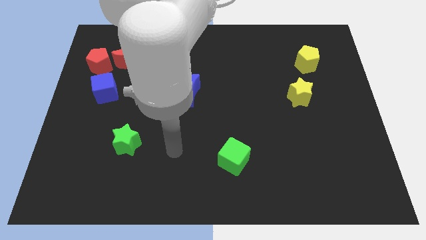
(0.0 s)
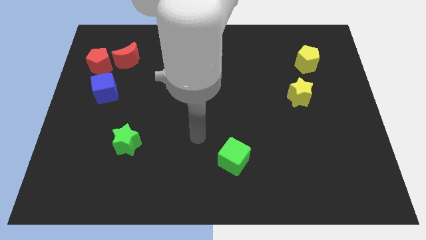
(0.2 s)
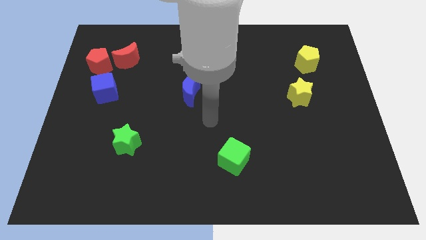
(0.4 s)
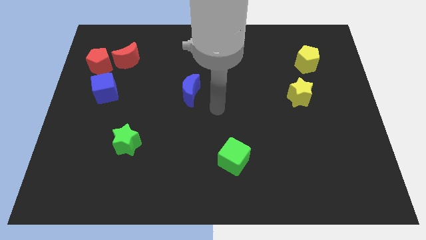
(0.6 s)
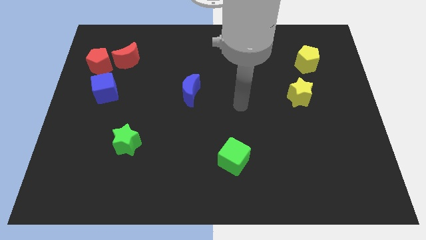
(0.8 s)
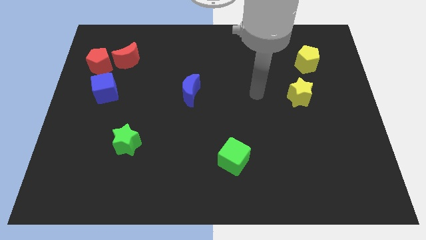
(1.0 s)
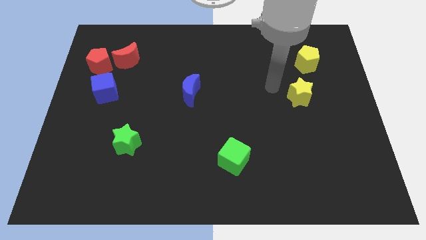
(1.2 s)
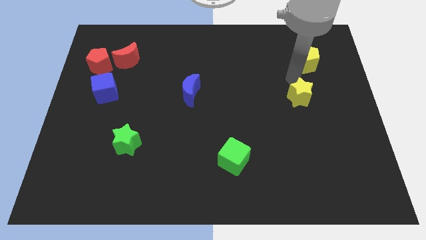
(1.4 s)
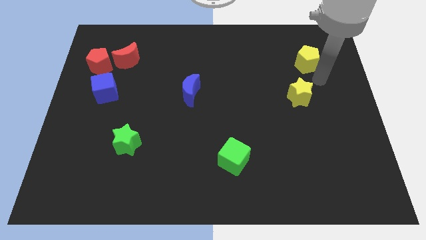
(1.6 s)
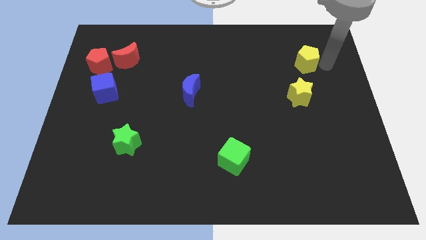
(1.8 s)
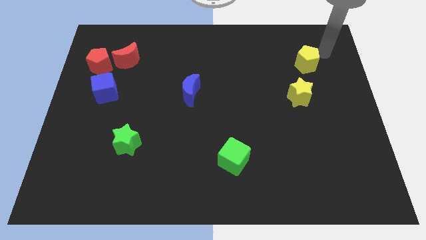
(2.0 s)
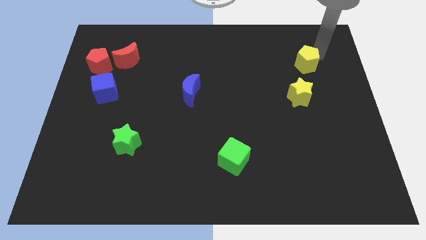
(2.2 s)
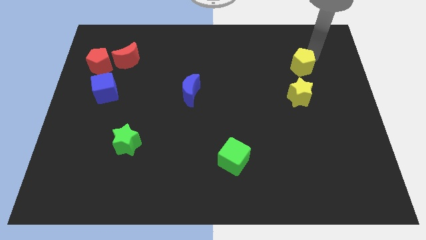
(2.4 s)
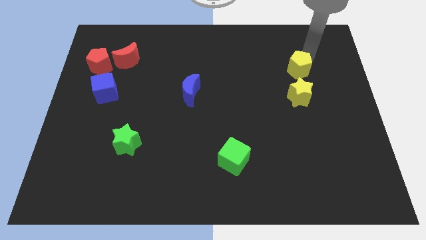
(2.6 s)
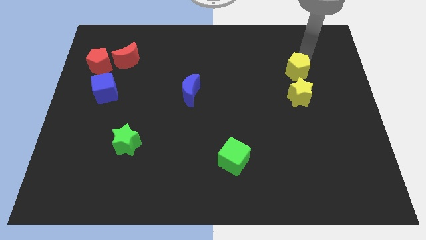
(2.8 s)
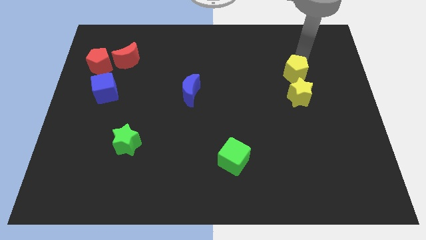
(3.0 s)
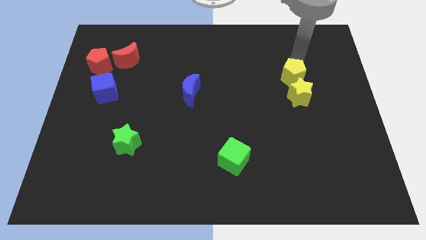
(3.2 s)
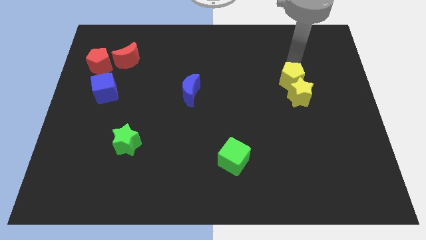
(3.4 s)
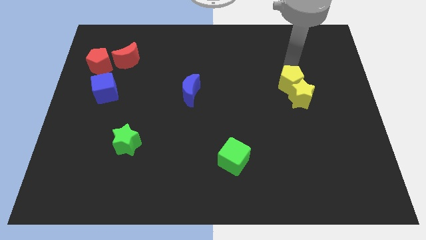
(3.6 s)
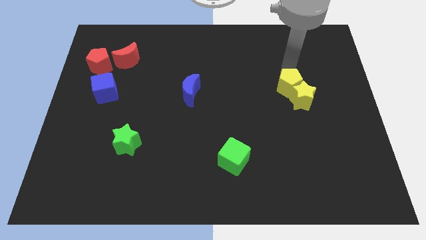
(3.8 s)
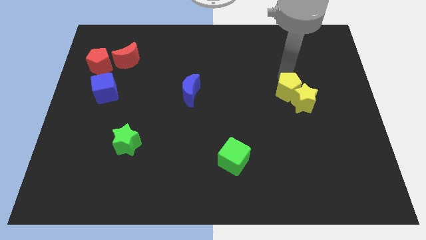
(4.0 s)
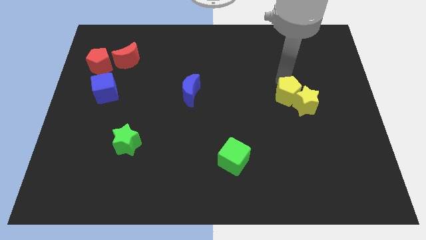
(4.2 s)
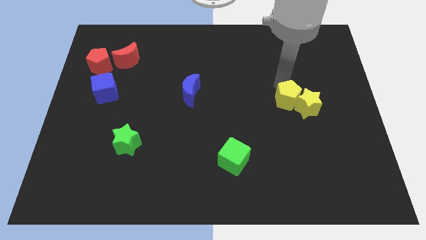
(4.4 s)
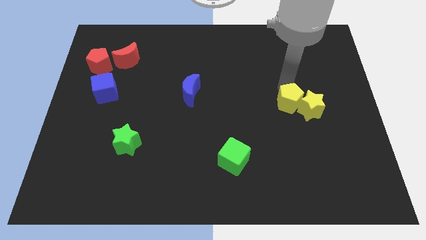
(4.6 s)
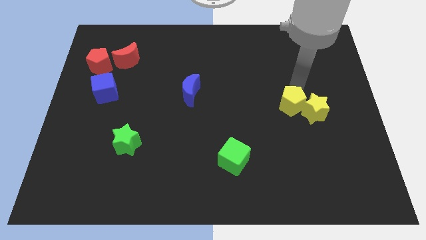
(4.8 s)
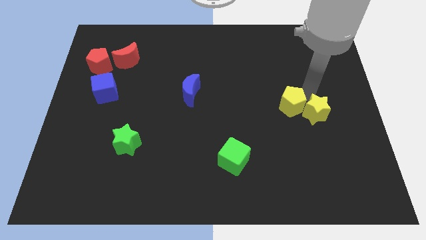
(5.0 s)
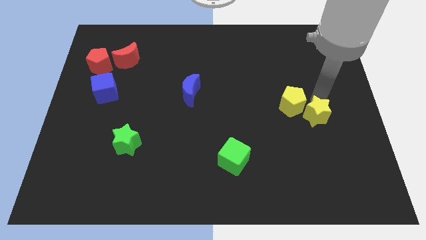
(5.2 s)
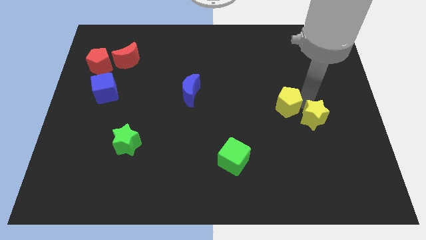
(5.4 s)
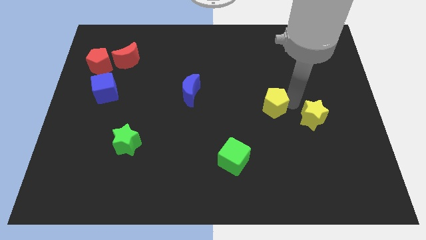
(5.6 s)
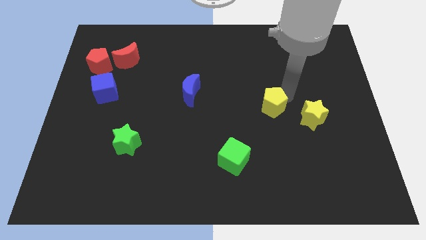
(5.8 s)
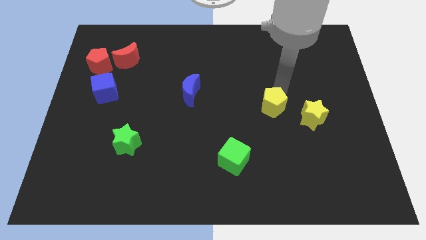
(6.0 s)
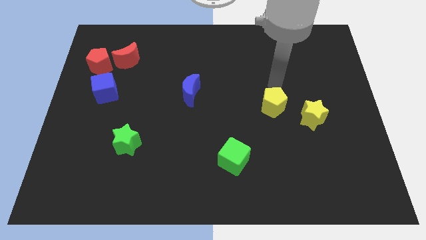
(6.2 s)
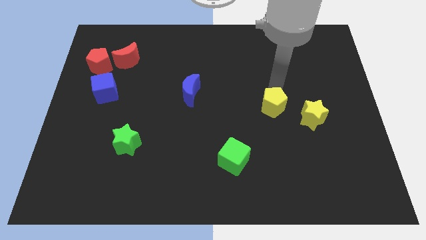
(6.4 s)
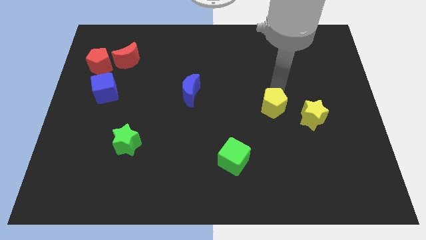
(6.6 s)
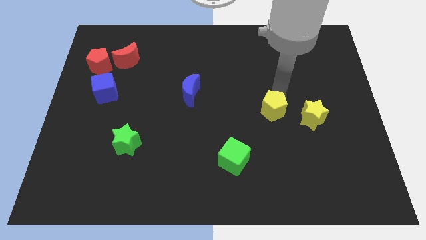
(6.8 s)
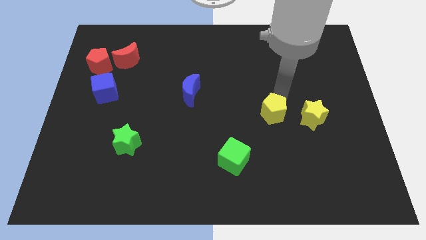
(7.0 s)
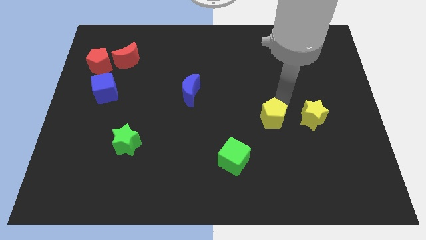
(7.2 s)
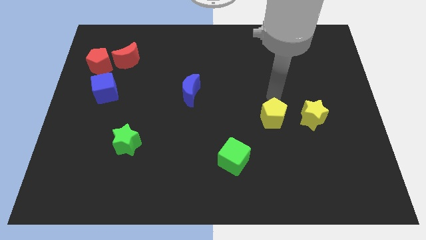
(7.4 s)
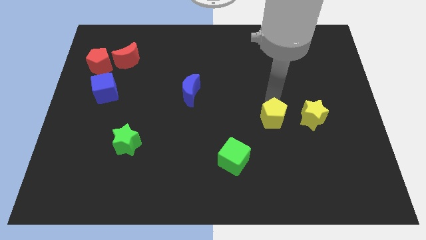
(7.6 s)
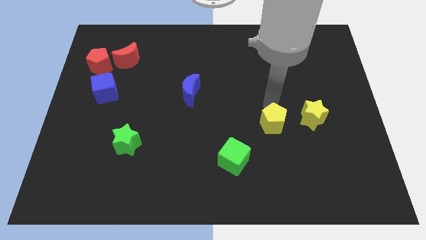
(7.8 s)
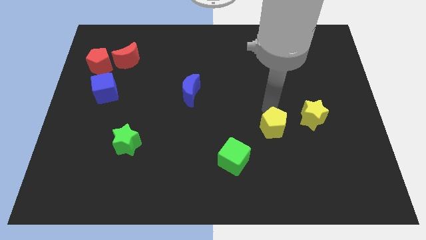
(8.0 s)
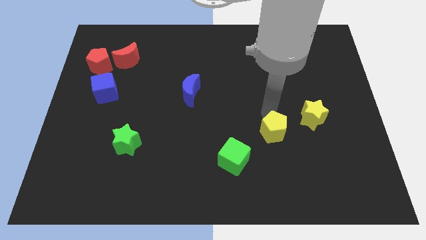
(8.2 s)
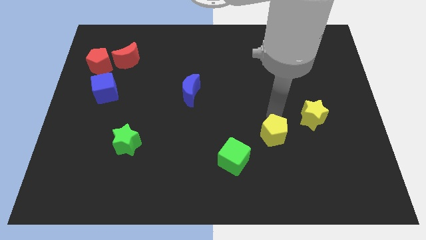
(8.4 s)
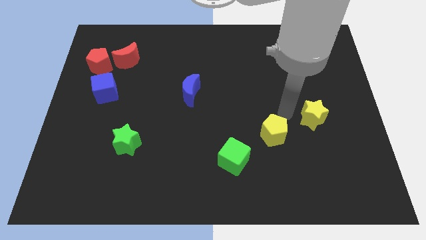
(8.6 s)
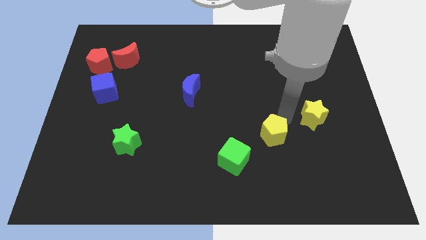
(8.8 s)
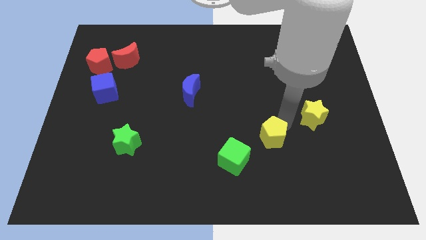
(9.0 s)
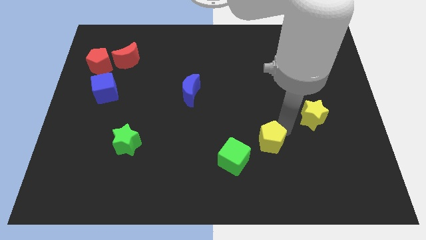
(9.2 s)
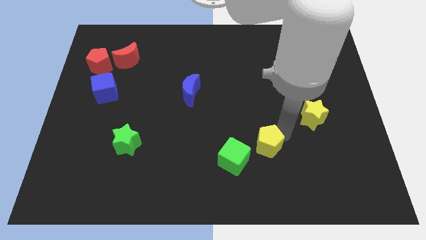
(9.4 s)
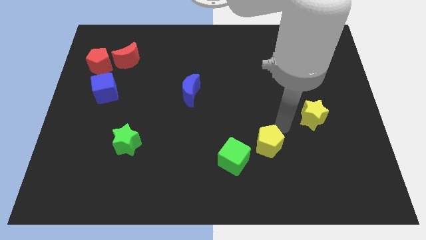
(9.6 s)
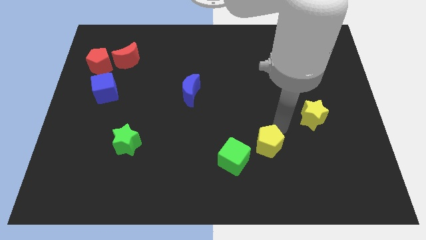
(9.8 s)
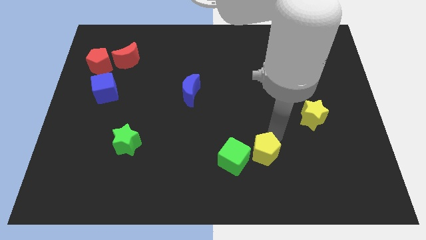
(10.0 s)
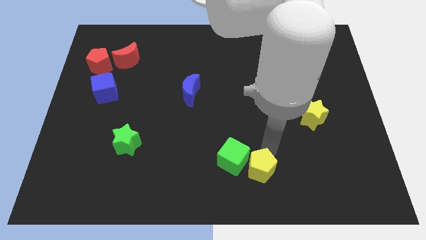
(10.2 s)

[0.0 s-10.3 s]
push the yellow pentagon to the bottom

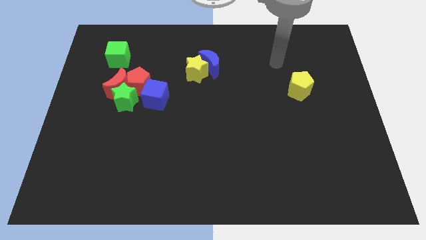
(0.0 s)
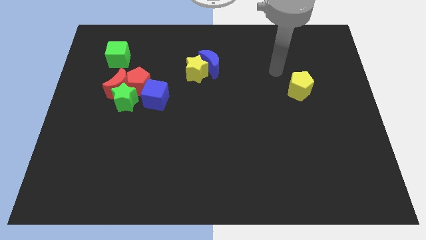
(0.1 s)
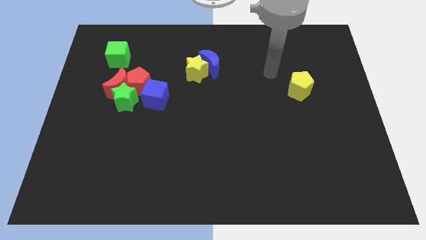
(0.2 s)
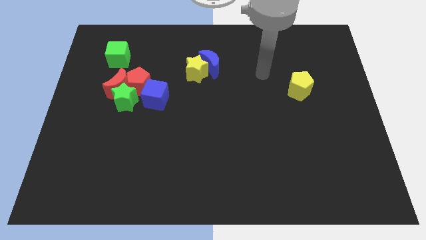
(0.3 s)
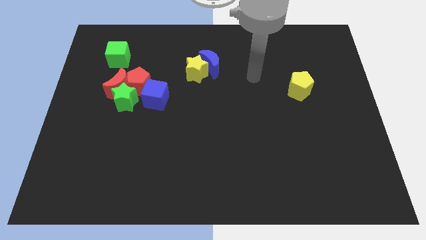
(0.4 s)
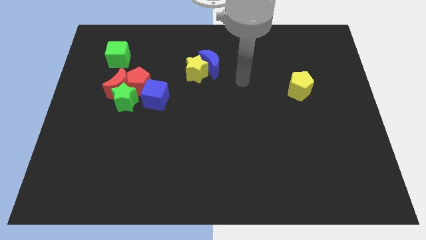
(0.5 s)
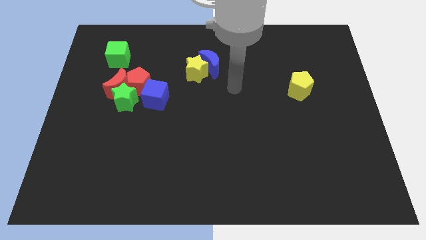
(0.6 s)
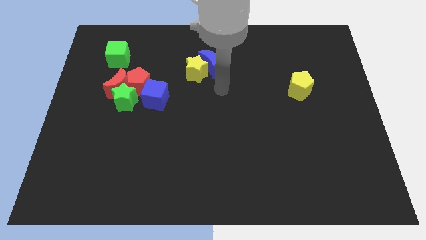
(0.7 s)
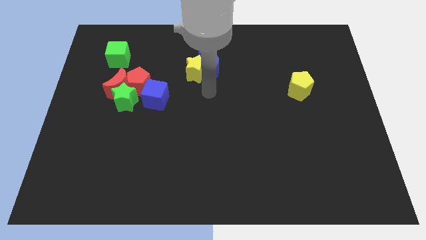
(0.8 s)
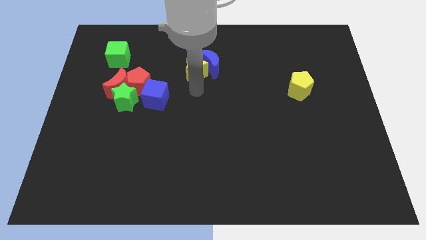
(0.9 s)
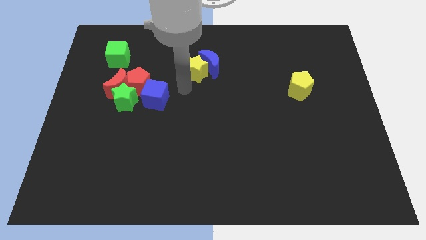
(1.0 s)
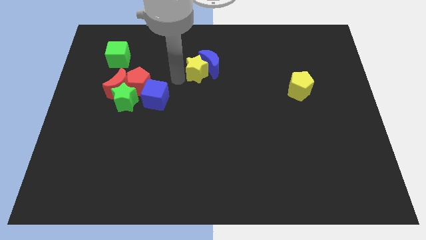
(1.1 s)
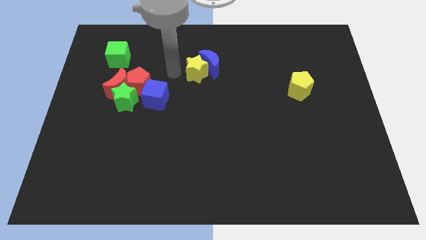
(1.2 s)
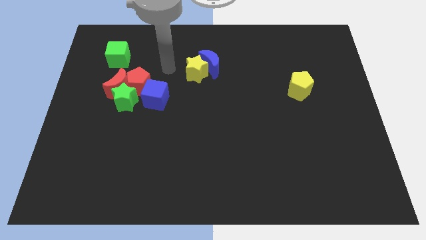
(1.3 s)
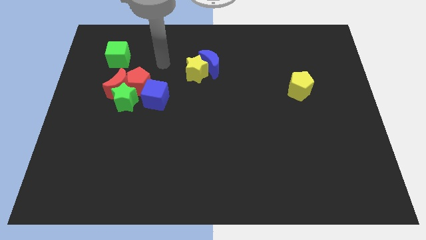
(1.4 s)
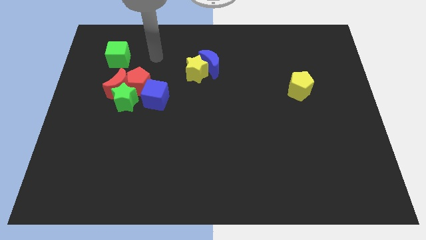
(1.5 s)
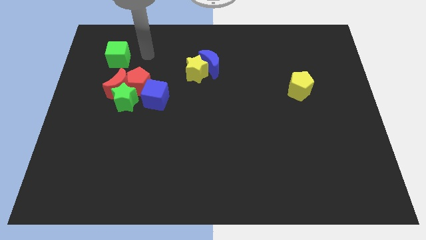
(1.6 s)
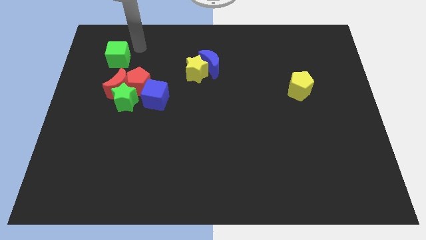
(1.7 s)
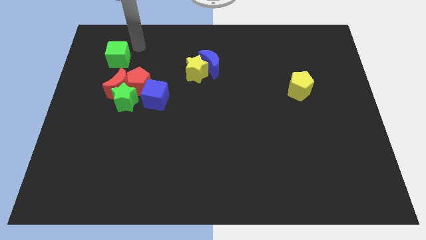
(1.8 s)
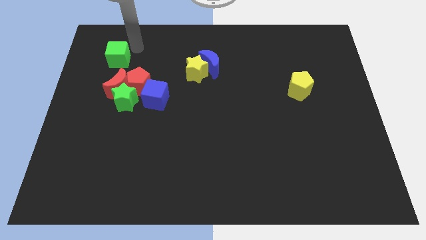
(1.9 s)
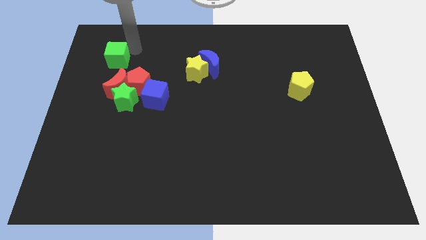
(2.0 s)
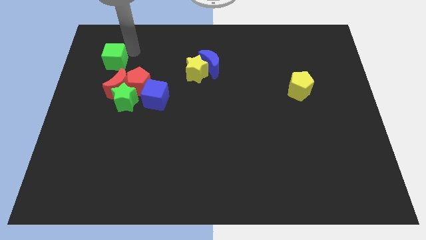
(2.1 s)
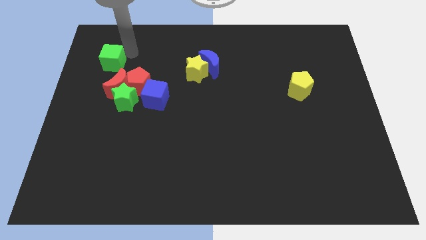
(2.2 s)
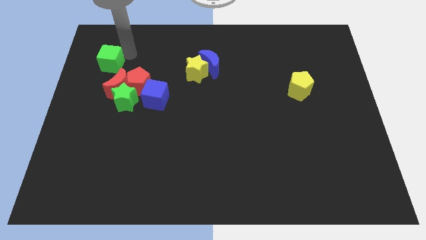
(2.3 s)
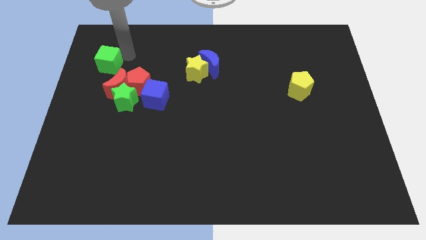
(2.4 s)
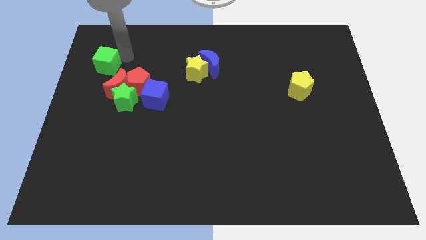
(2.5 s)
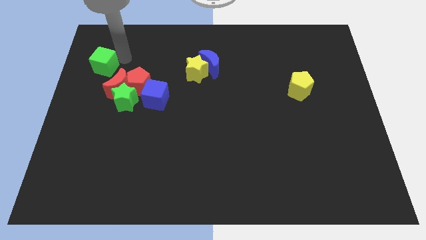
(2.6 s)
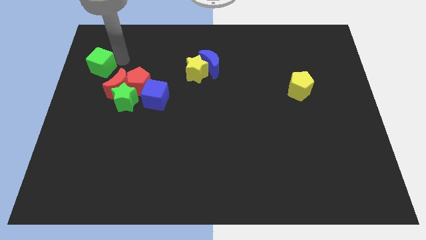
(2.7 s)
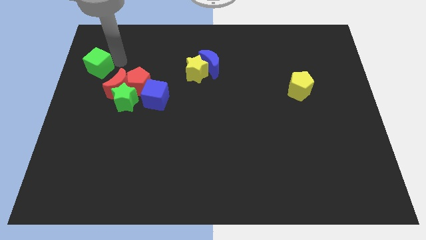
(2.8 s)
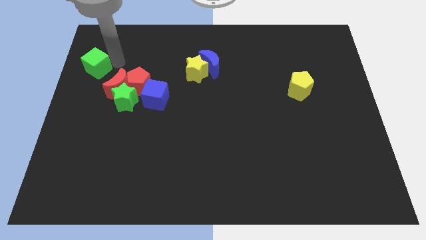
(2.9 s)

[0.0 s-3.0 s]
slide the green cube to the left side
